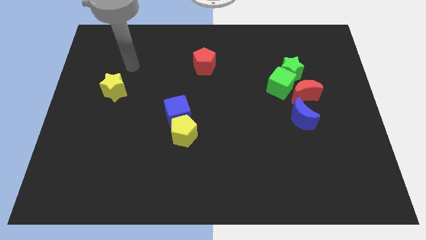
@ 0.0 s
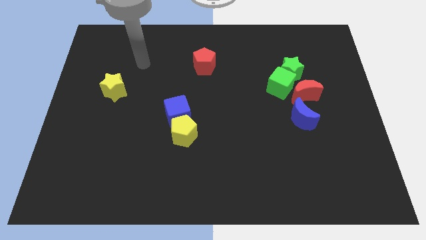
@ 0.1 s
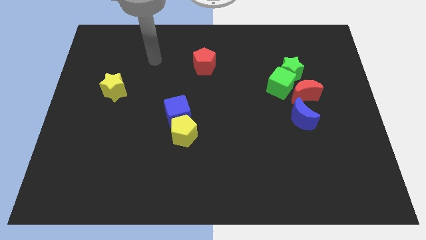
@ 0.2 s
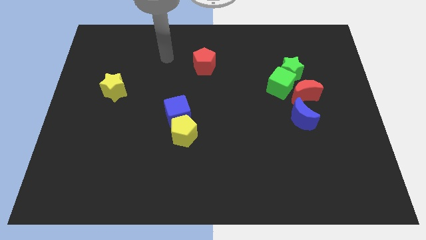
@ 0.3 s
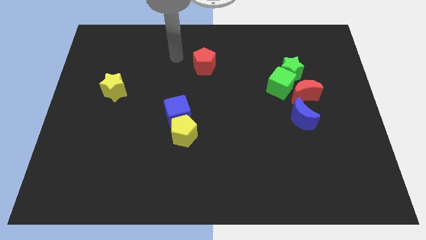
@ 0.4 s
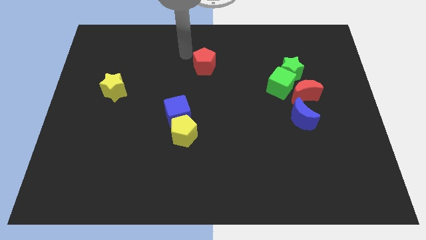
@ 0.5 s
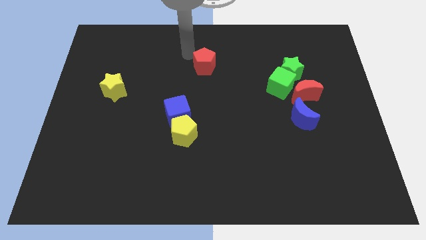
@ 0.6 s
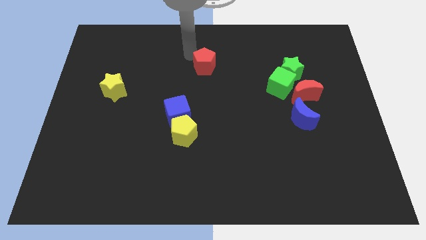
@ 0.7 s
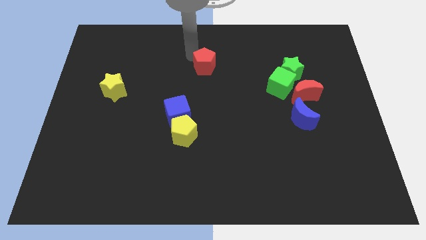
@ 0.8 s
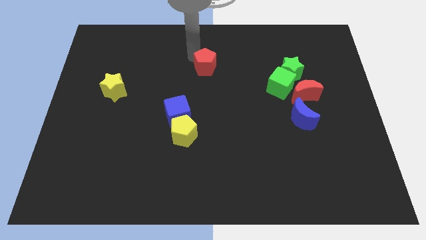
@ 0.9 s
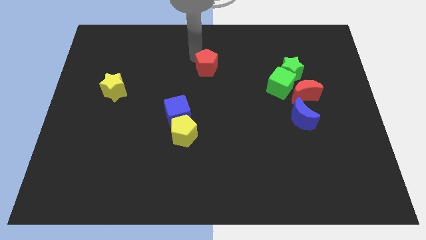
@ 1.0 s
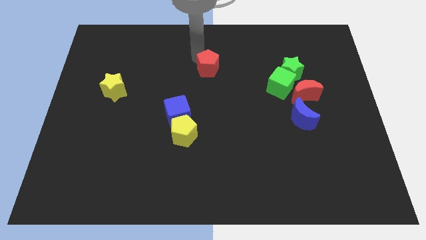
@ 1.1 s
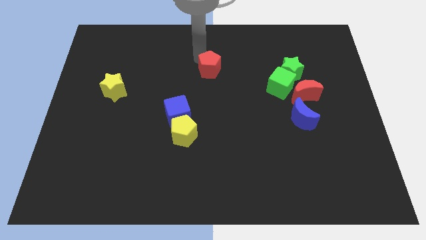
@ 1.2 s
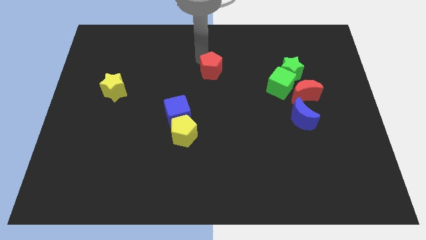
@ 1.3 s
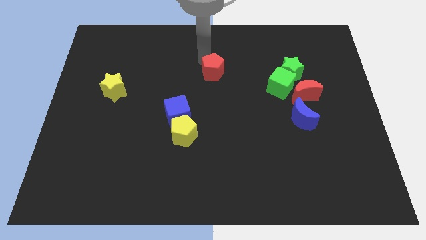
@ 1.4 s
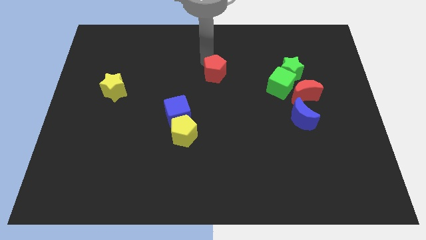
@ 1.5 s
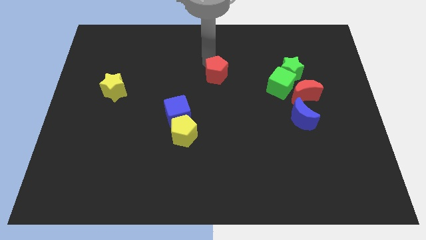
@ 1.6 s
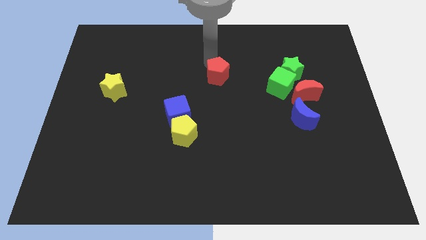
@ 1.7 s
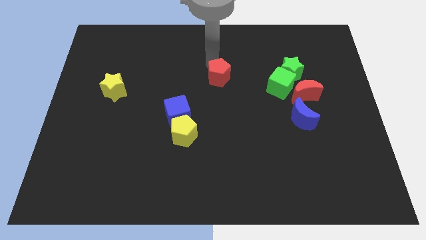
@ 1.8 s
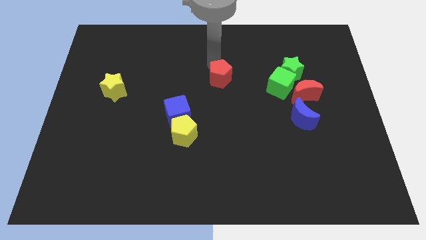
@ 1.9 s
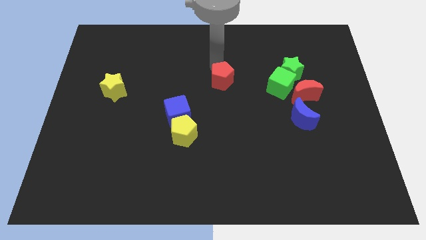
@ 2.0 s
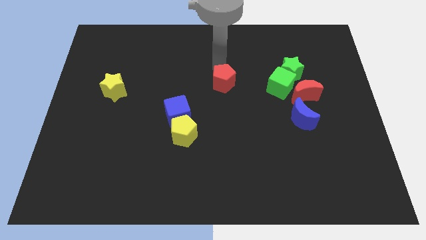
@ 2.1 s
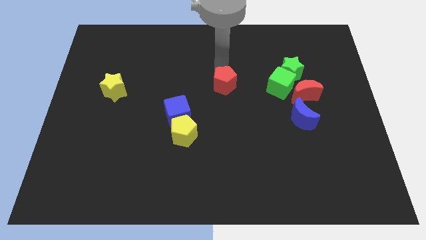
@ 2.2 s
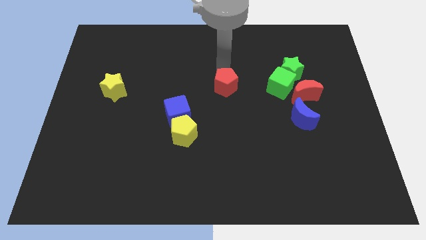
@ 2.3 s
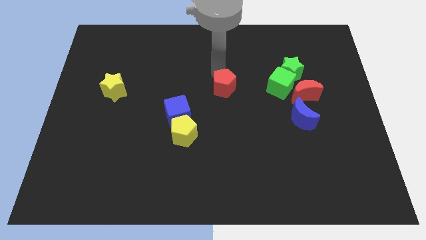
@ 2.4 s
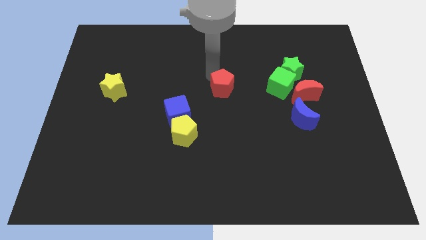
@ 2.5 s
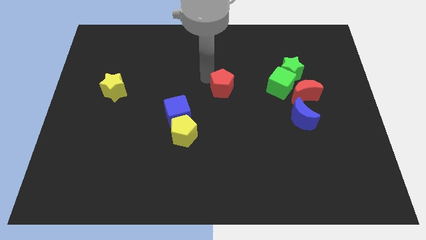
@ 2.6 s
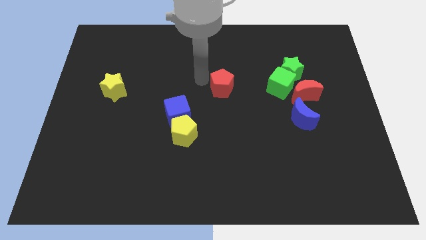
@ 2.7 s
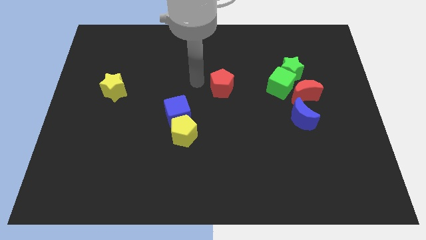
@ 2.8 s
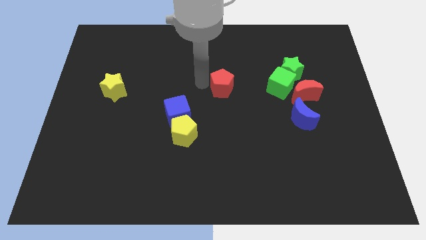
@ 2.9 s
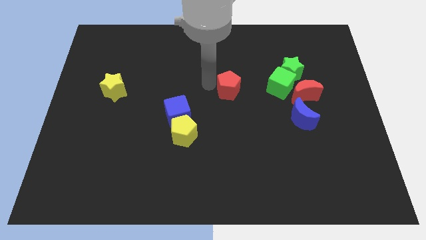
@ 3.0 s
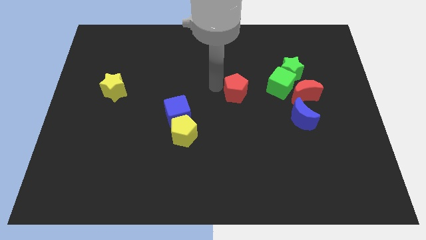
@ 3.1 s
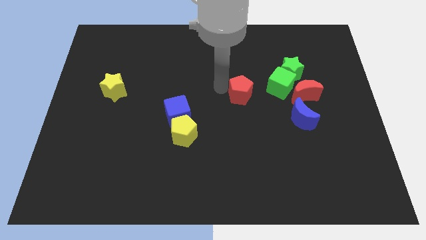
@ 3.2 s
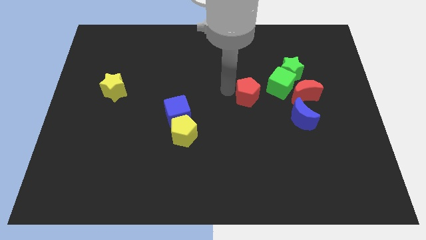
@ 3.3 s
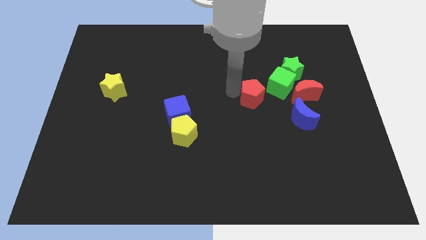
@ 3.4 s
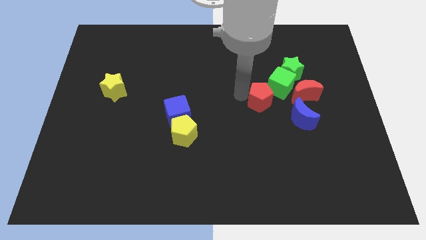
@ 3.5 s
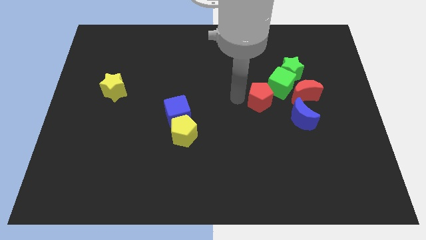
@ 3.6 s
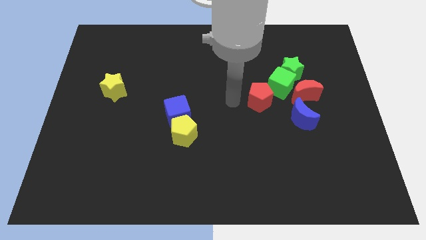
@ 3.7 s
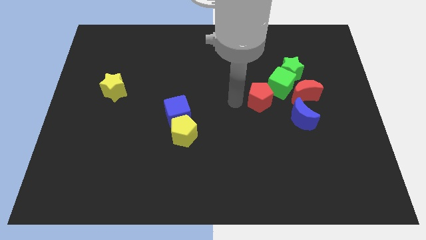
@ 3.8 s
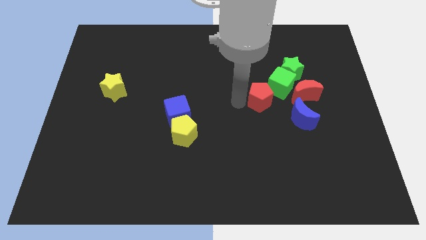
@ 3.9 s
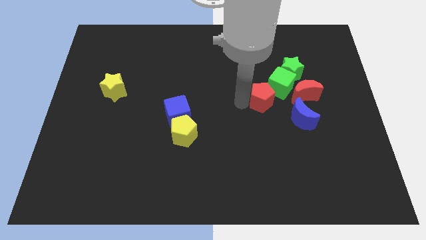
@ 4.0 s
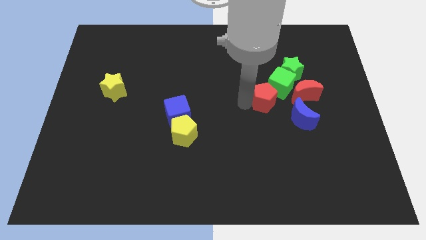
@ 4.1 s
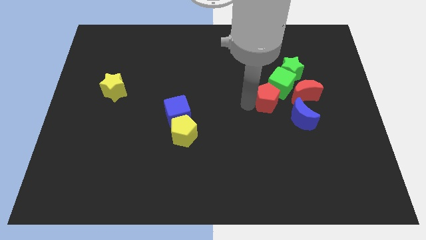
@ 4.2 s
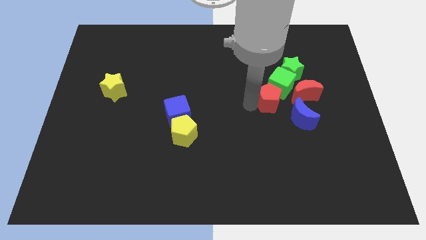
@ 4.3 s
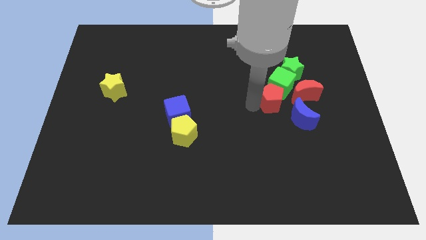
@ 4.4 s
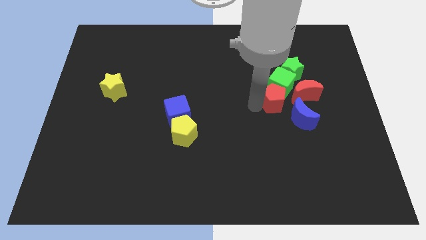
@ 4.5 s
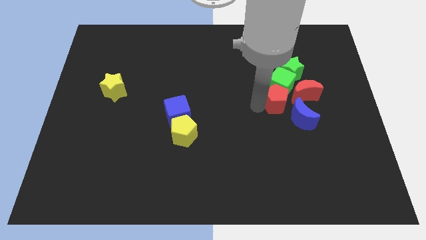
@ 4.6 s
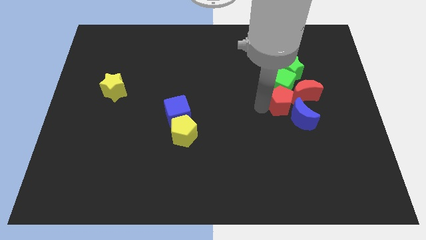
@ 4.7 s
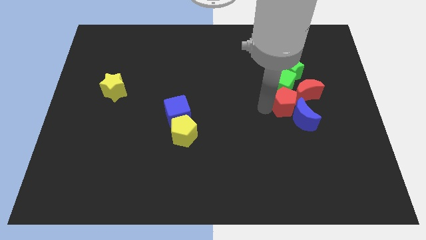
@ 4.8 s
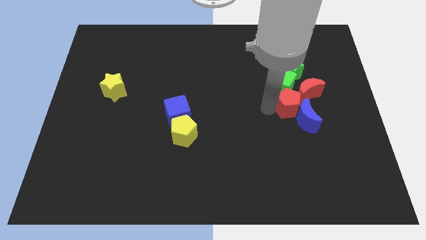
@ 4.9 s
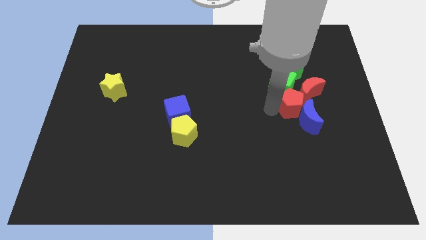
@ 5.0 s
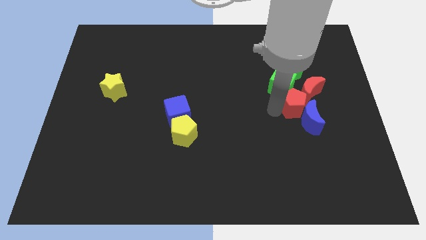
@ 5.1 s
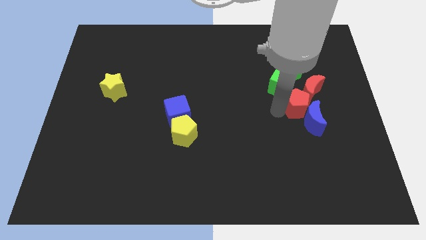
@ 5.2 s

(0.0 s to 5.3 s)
slide the red pentagon next to the red moon

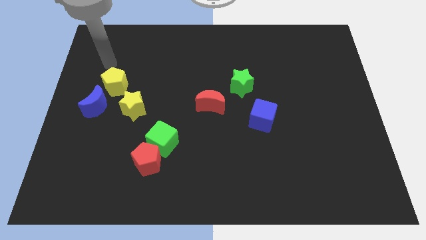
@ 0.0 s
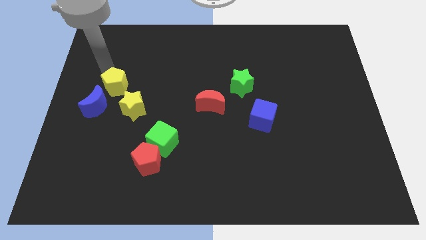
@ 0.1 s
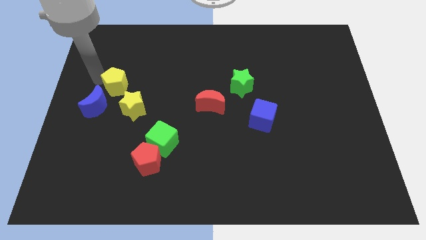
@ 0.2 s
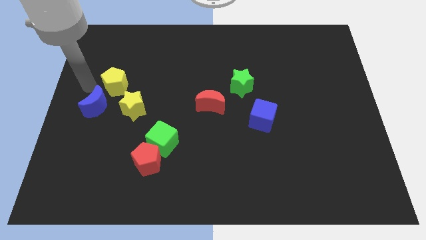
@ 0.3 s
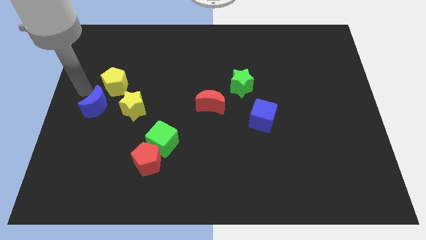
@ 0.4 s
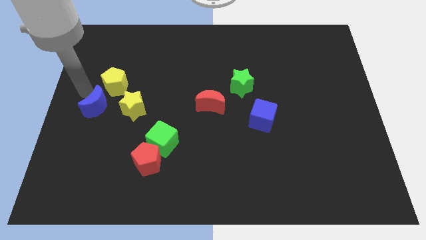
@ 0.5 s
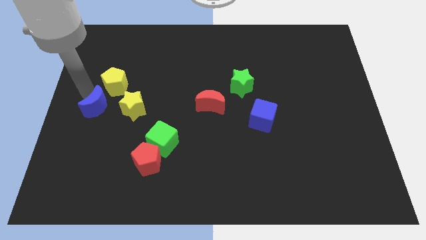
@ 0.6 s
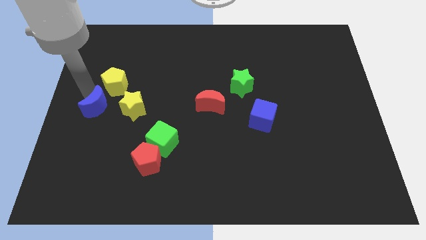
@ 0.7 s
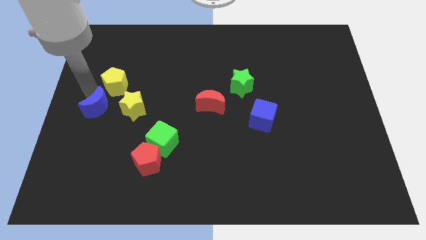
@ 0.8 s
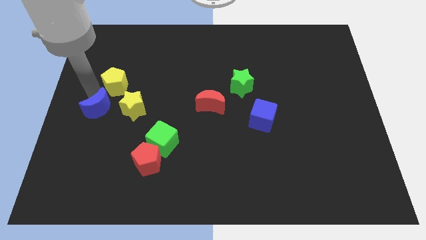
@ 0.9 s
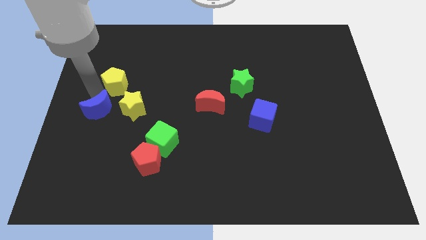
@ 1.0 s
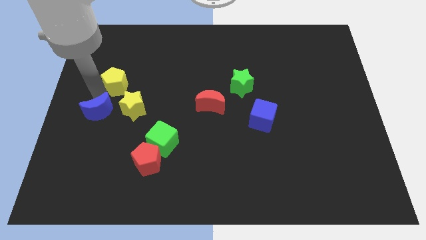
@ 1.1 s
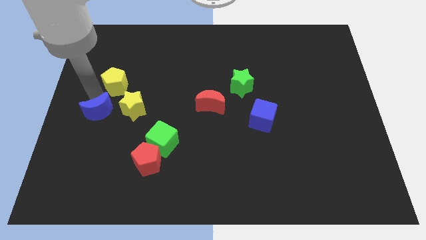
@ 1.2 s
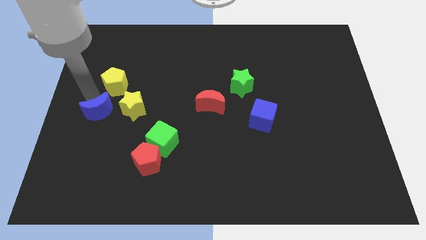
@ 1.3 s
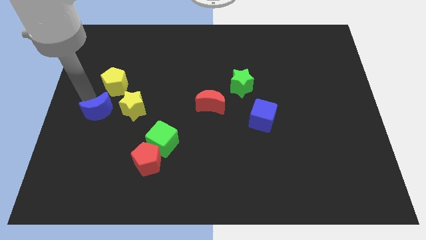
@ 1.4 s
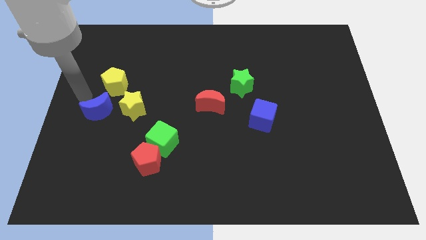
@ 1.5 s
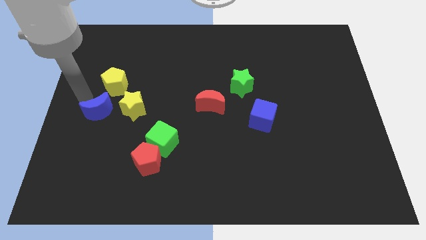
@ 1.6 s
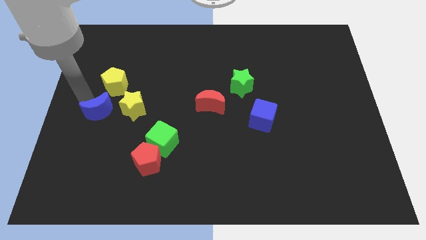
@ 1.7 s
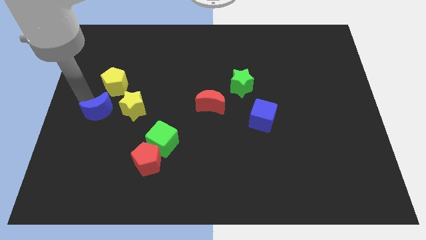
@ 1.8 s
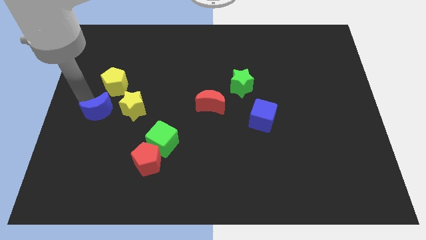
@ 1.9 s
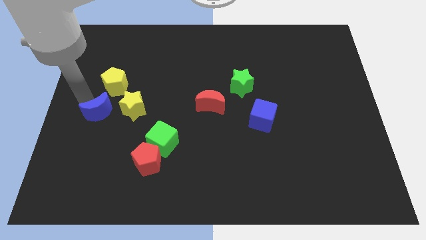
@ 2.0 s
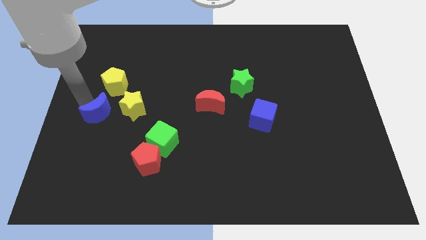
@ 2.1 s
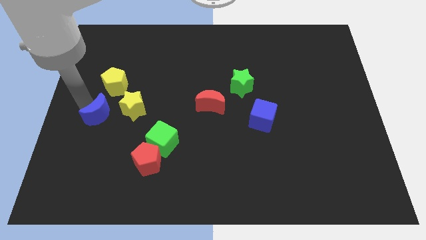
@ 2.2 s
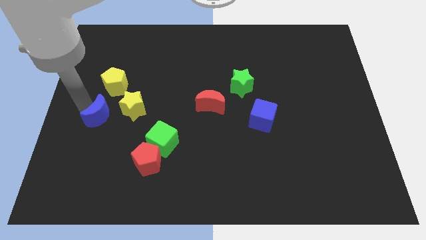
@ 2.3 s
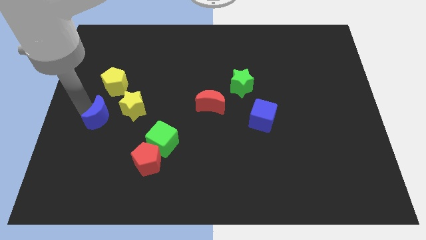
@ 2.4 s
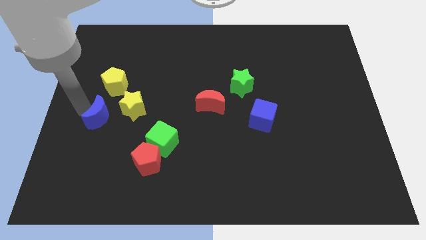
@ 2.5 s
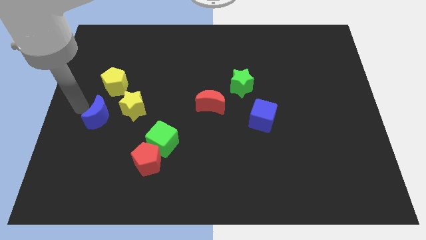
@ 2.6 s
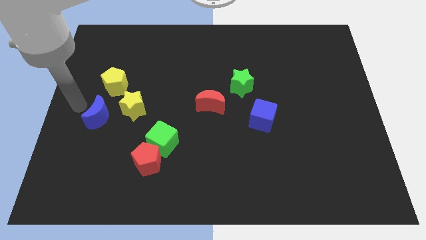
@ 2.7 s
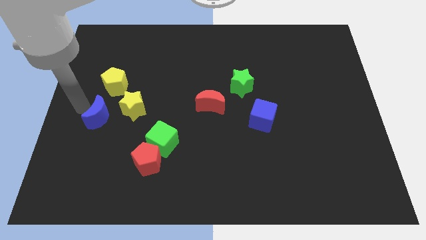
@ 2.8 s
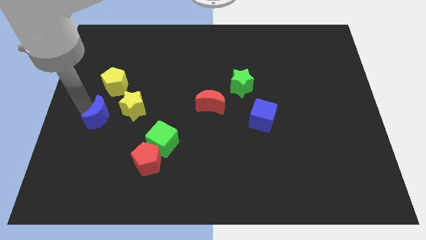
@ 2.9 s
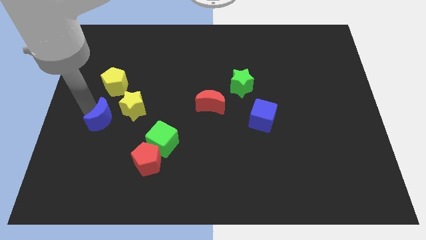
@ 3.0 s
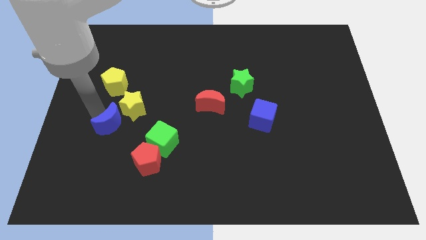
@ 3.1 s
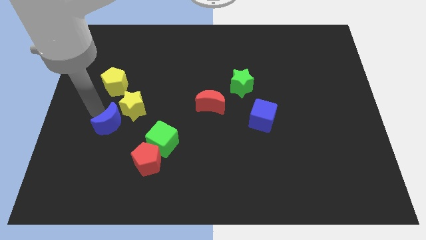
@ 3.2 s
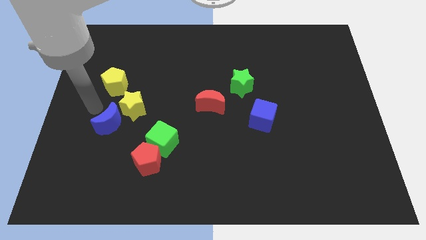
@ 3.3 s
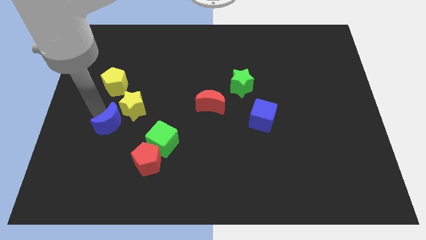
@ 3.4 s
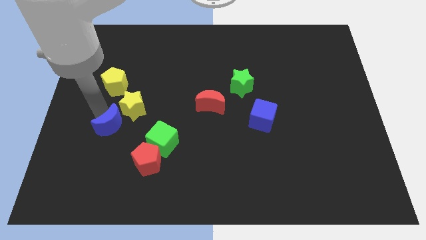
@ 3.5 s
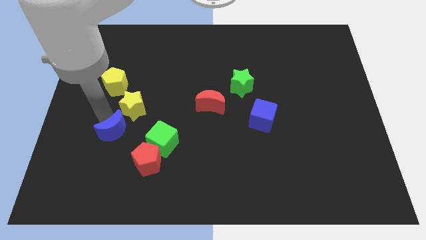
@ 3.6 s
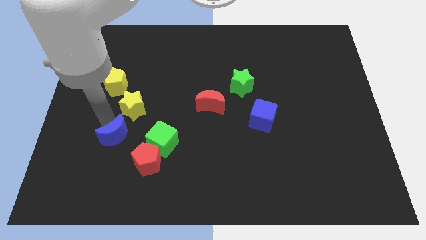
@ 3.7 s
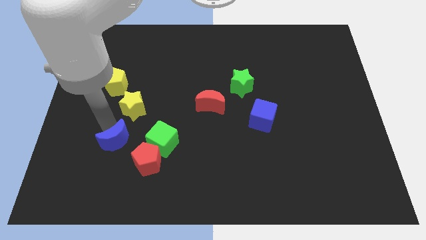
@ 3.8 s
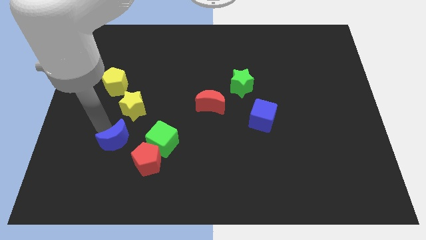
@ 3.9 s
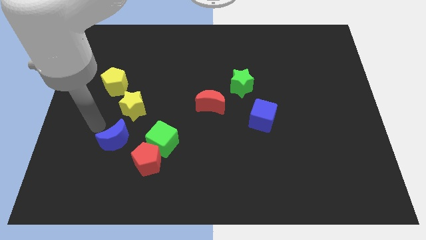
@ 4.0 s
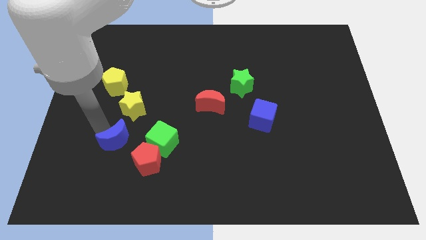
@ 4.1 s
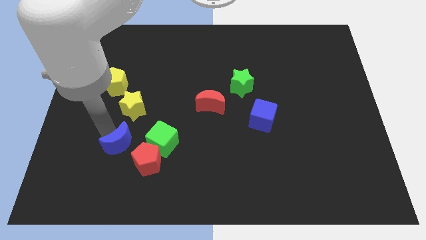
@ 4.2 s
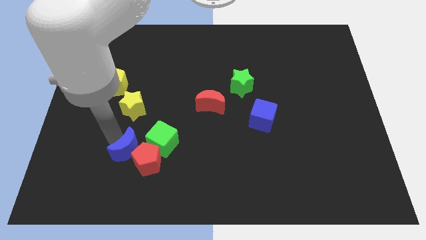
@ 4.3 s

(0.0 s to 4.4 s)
slide the blue moon to the red pentagon
